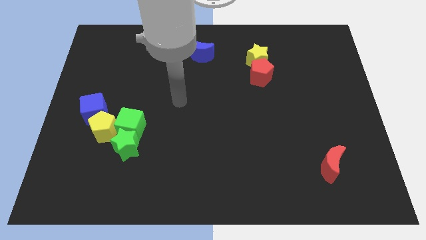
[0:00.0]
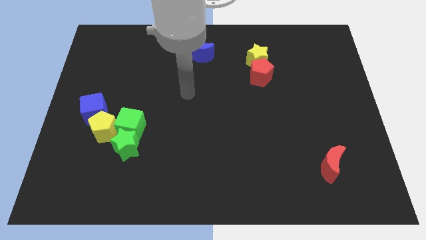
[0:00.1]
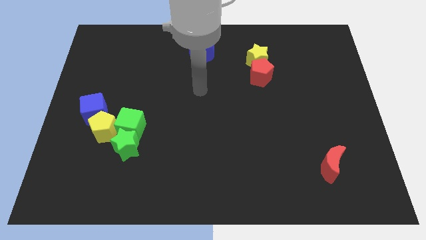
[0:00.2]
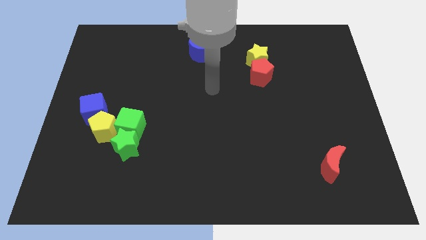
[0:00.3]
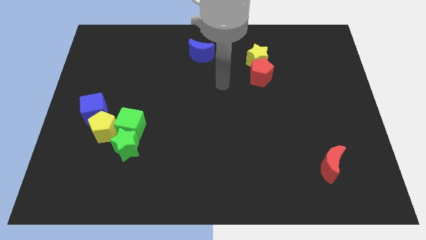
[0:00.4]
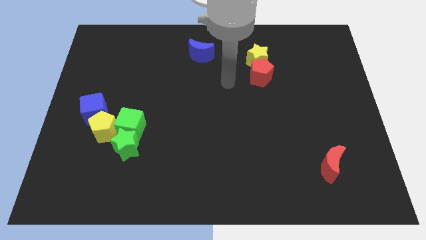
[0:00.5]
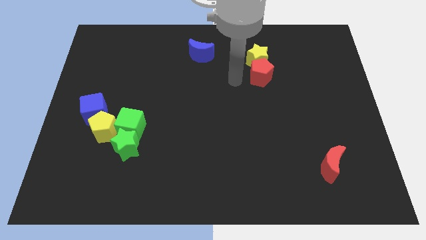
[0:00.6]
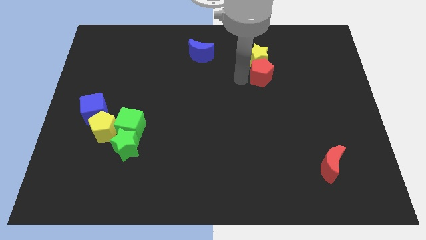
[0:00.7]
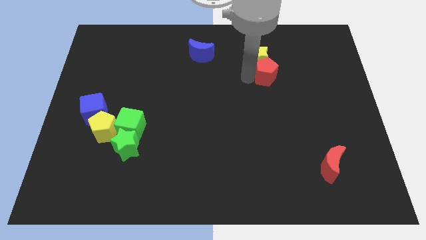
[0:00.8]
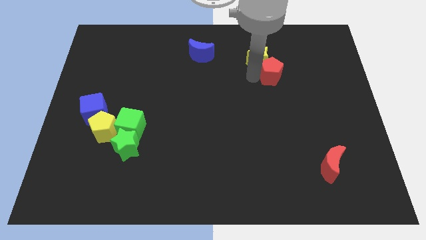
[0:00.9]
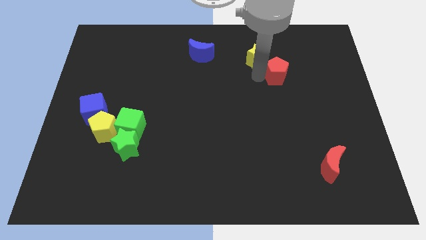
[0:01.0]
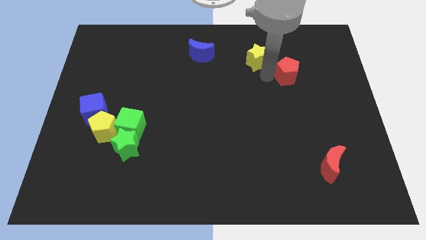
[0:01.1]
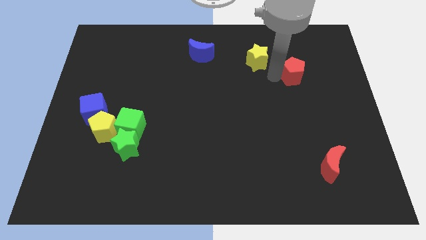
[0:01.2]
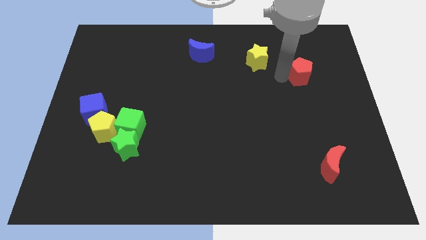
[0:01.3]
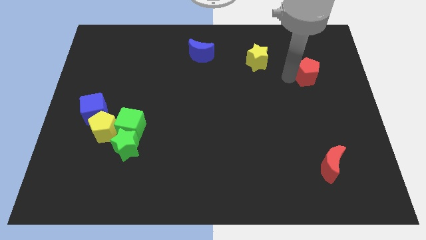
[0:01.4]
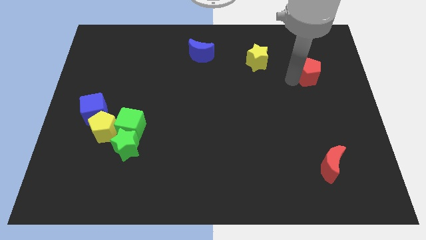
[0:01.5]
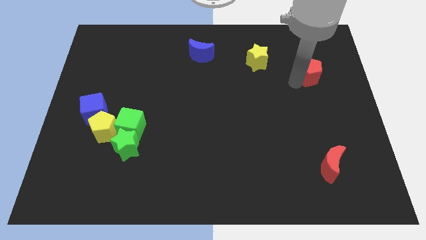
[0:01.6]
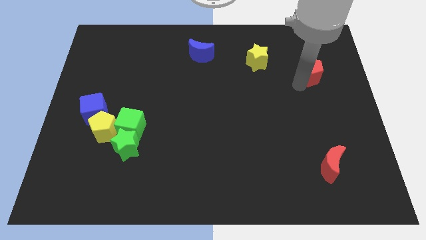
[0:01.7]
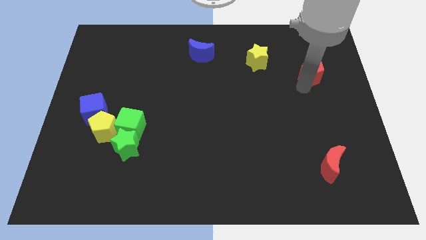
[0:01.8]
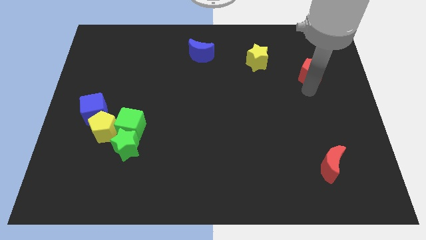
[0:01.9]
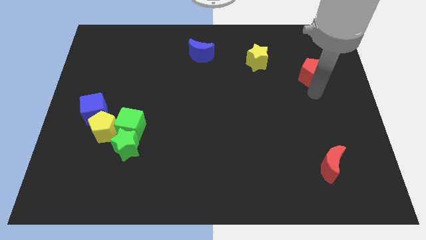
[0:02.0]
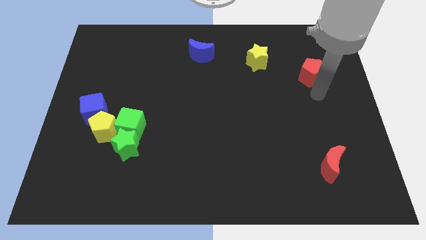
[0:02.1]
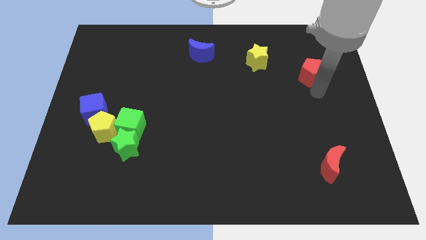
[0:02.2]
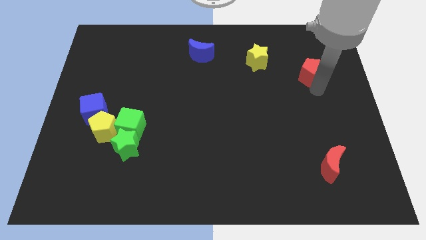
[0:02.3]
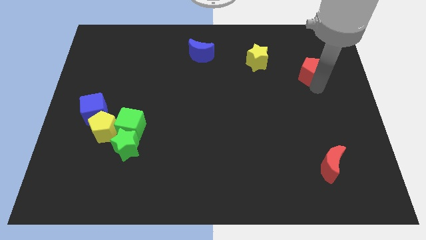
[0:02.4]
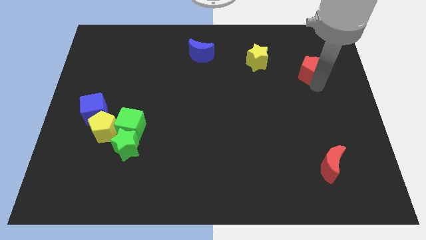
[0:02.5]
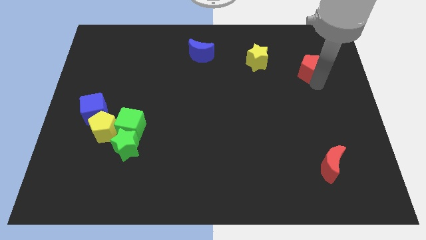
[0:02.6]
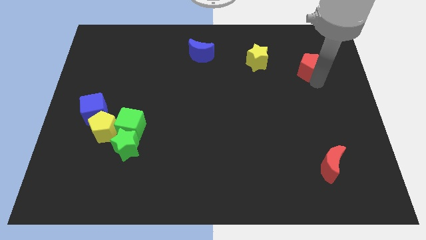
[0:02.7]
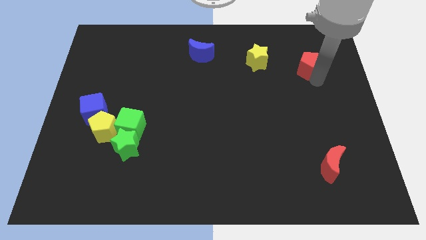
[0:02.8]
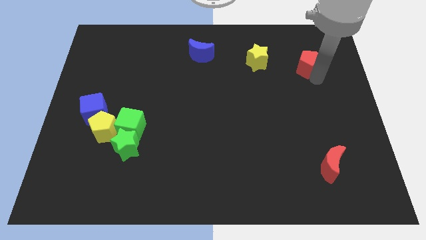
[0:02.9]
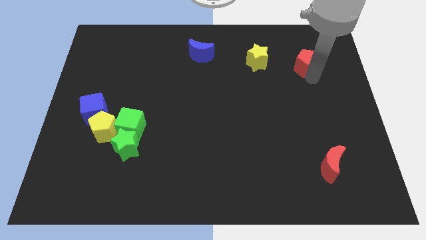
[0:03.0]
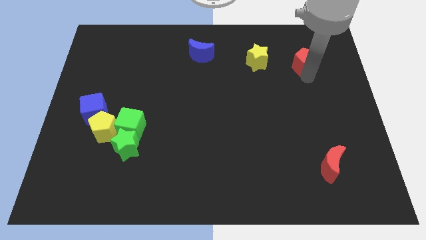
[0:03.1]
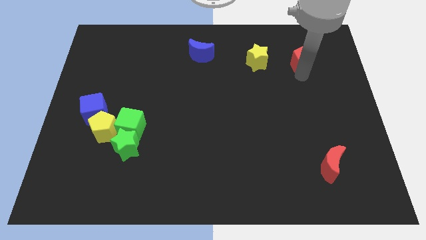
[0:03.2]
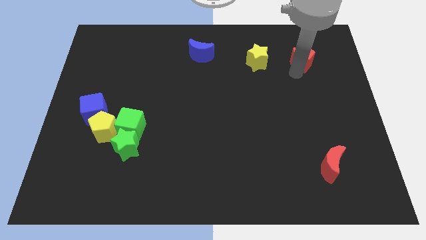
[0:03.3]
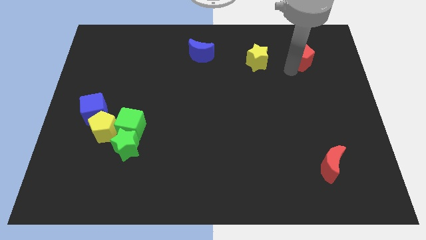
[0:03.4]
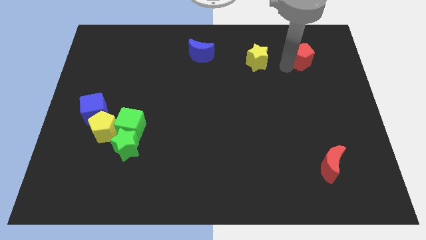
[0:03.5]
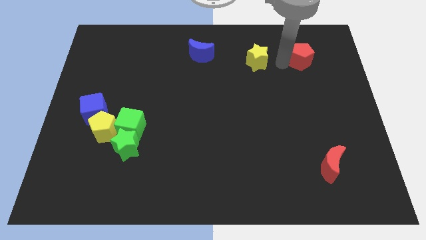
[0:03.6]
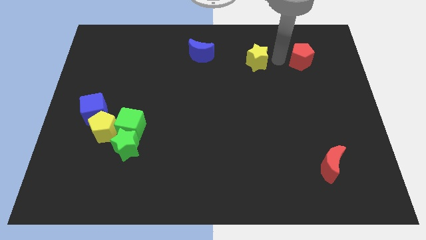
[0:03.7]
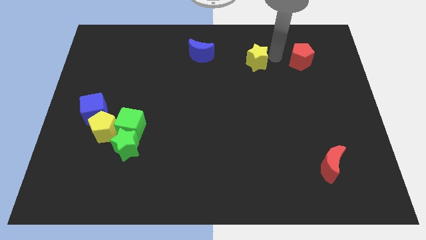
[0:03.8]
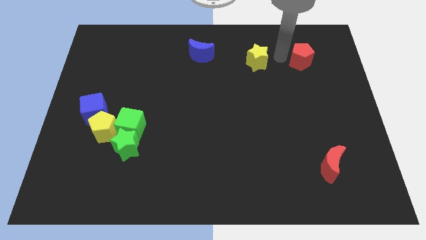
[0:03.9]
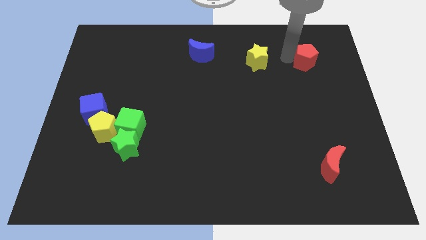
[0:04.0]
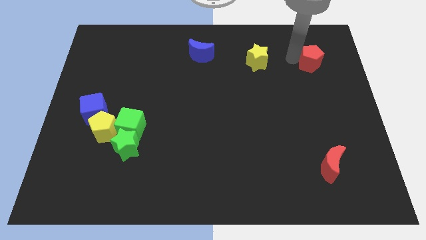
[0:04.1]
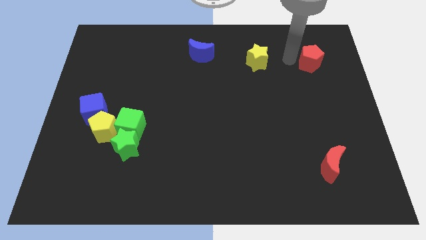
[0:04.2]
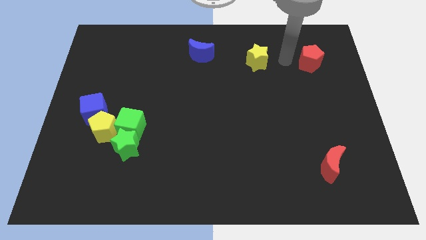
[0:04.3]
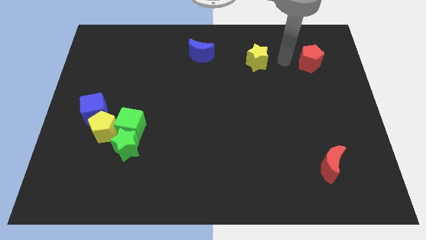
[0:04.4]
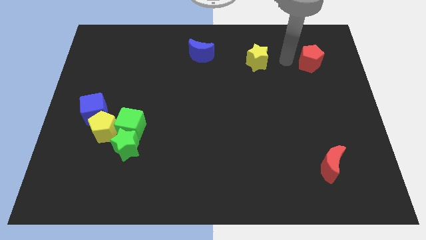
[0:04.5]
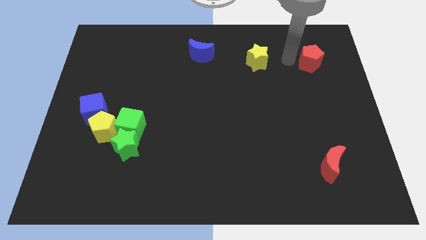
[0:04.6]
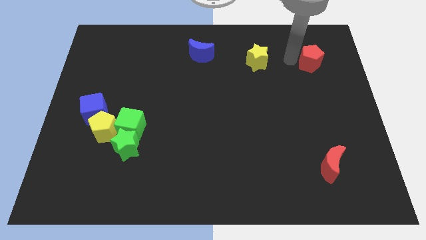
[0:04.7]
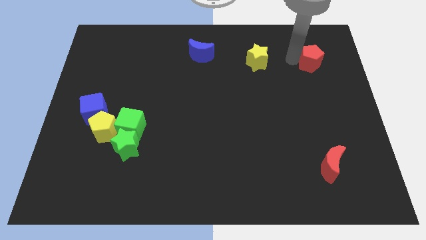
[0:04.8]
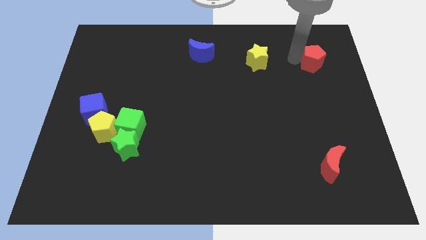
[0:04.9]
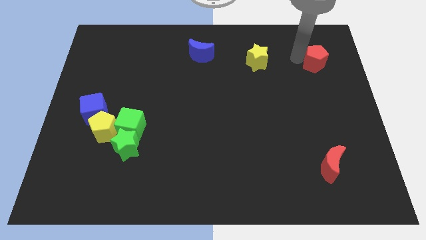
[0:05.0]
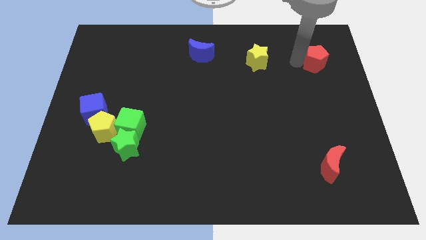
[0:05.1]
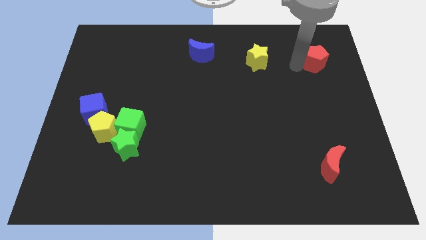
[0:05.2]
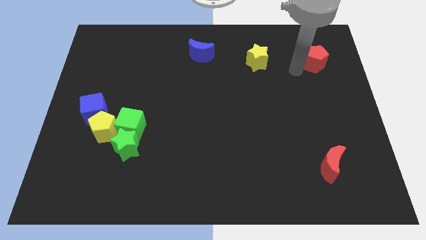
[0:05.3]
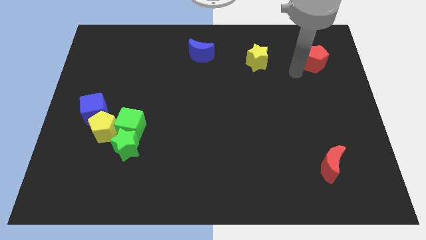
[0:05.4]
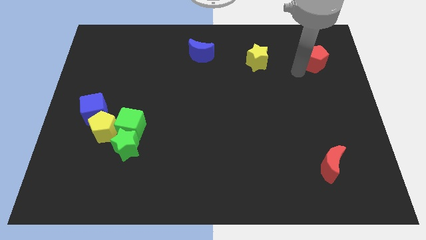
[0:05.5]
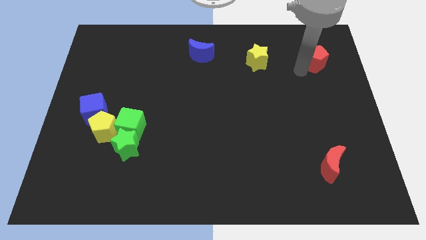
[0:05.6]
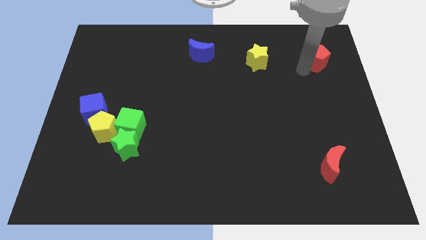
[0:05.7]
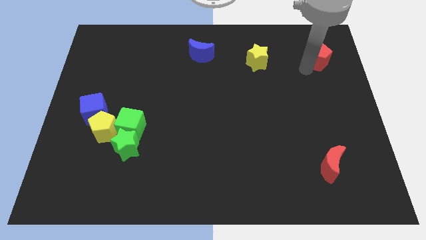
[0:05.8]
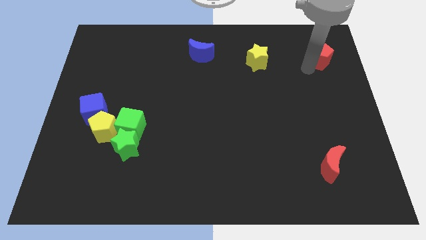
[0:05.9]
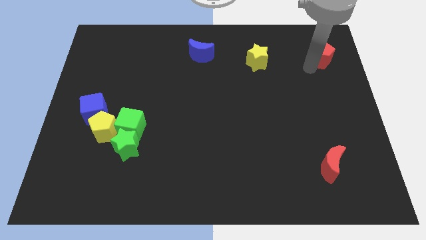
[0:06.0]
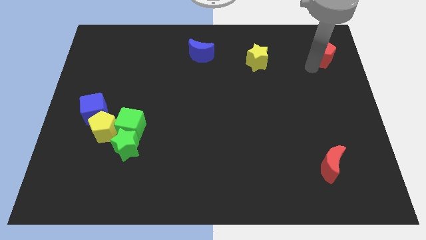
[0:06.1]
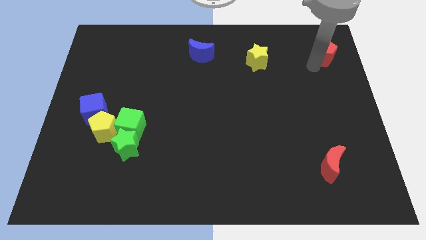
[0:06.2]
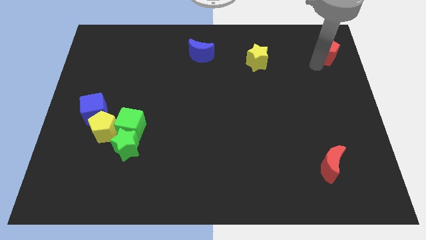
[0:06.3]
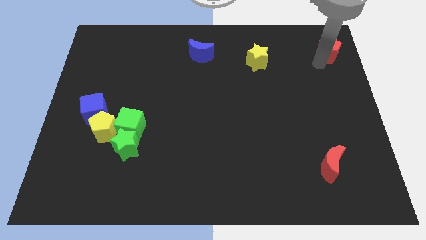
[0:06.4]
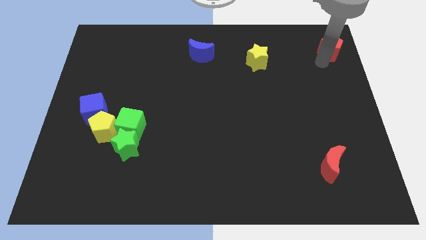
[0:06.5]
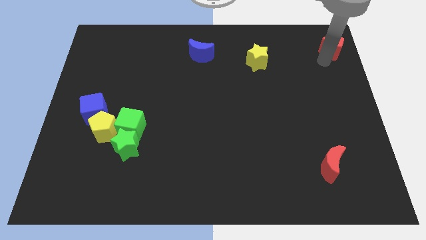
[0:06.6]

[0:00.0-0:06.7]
slide the red pentagon to the top right of the board

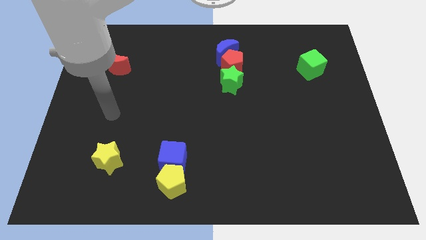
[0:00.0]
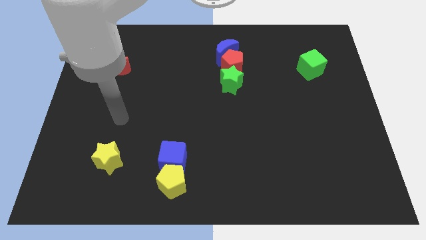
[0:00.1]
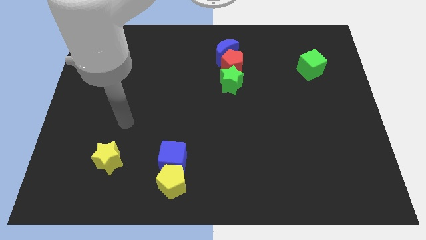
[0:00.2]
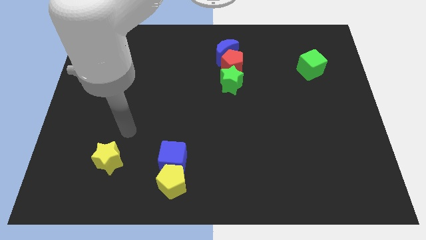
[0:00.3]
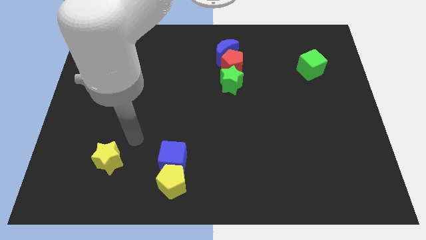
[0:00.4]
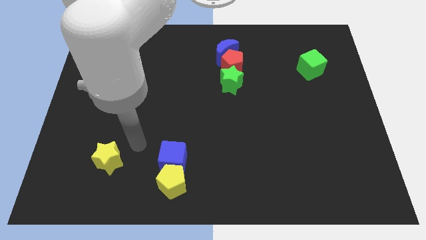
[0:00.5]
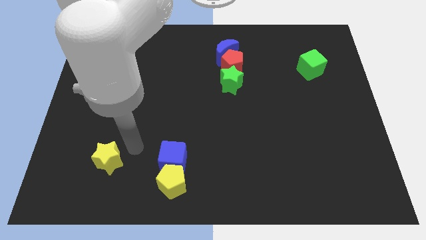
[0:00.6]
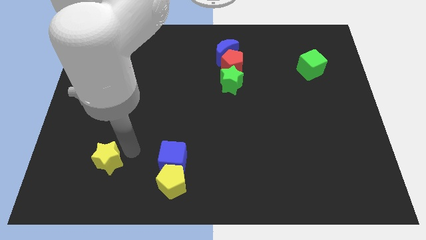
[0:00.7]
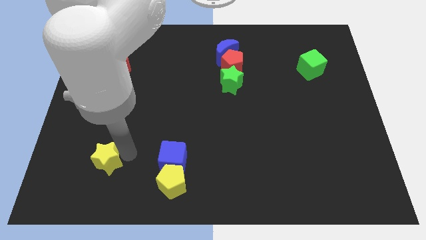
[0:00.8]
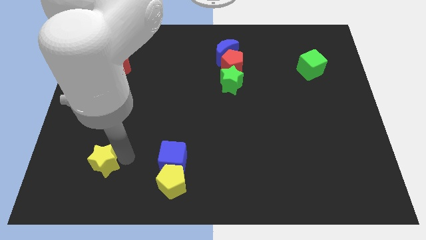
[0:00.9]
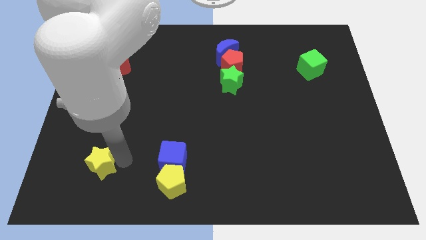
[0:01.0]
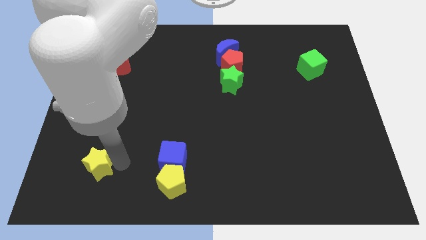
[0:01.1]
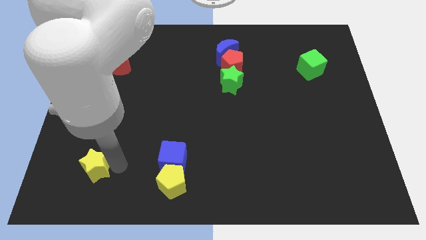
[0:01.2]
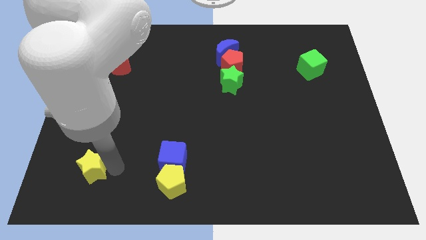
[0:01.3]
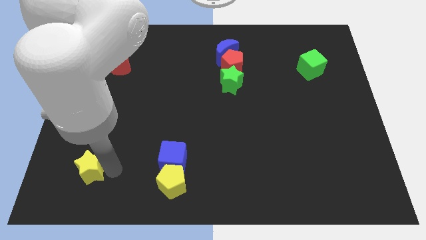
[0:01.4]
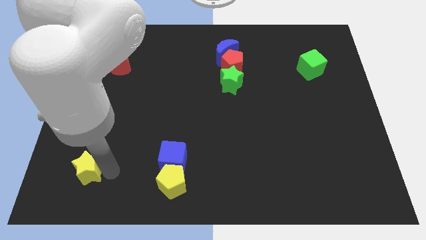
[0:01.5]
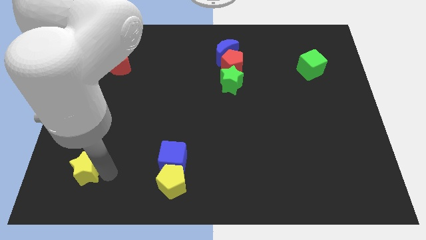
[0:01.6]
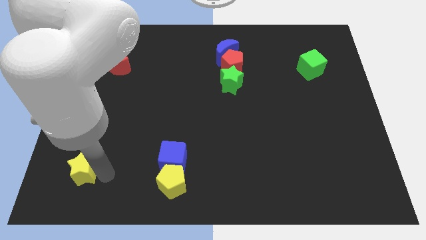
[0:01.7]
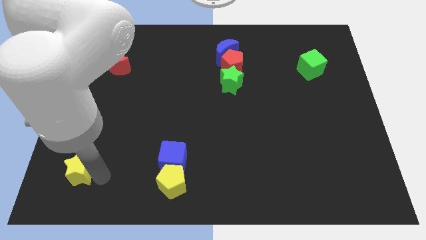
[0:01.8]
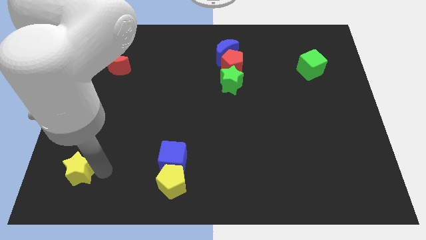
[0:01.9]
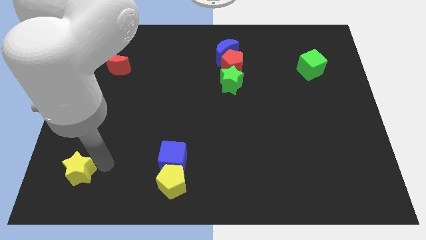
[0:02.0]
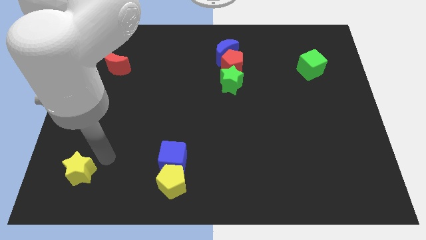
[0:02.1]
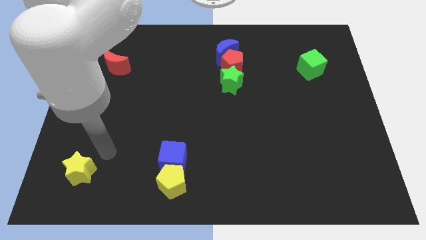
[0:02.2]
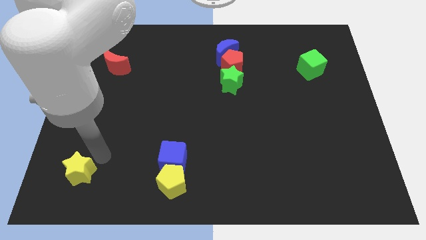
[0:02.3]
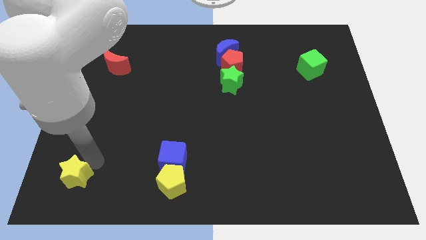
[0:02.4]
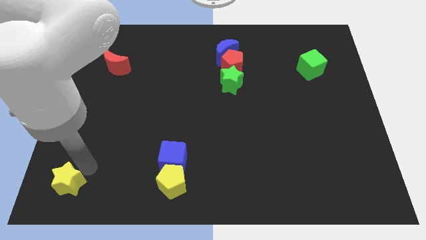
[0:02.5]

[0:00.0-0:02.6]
move the yellow star to the bottom left of the board
